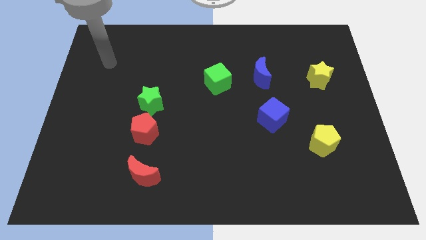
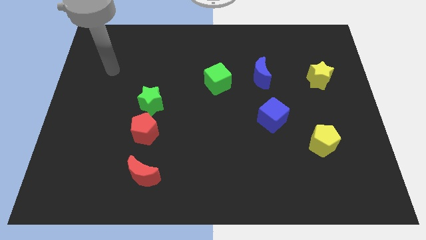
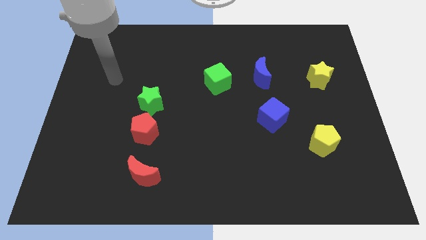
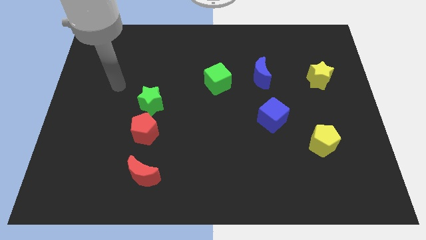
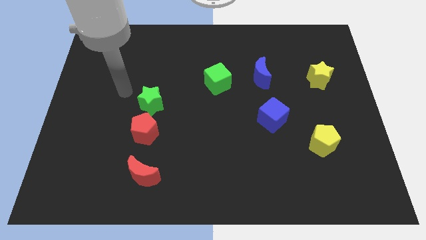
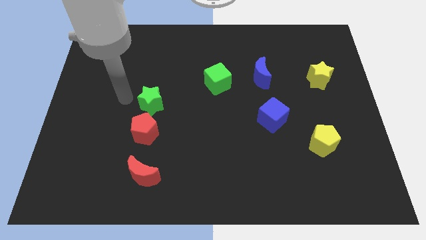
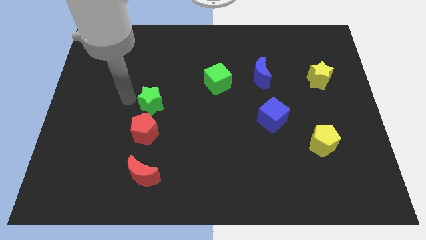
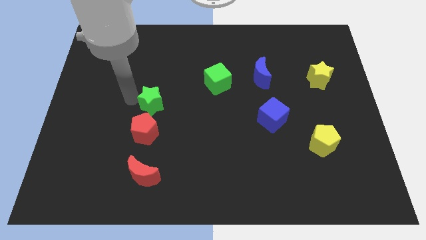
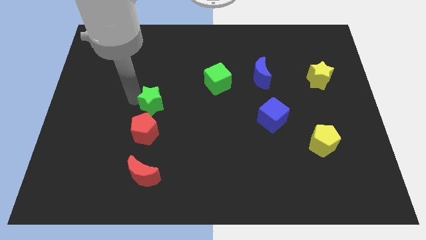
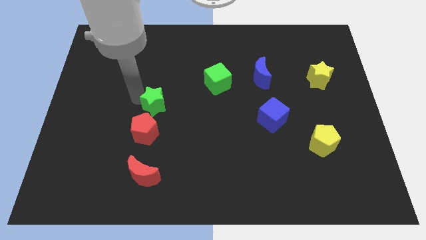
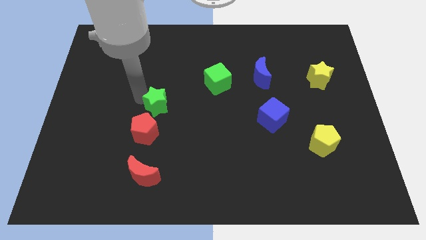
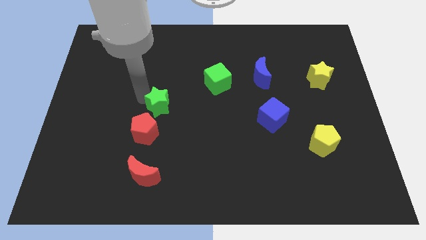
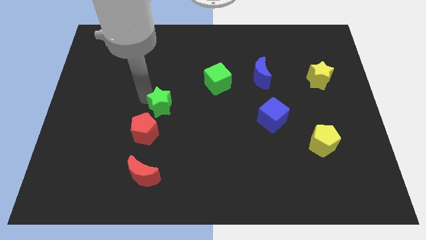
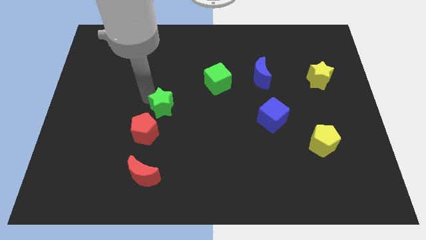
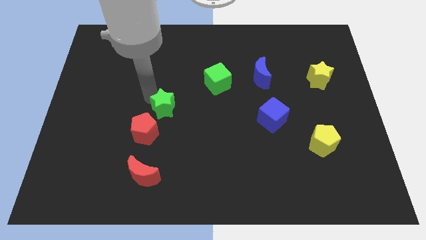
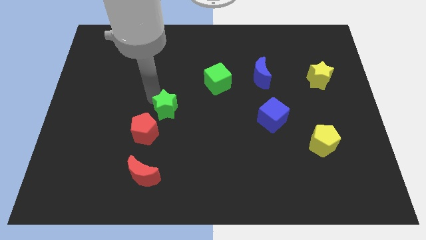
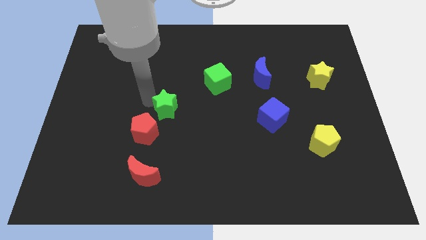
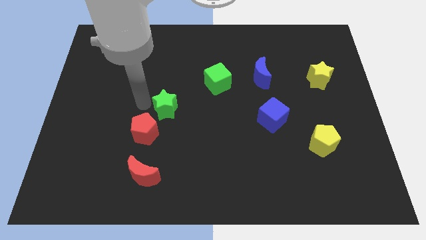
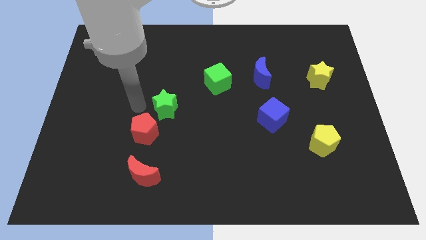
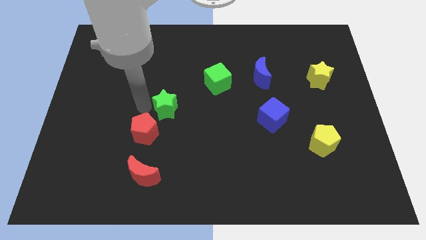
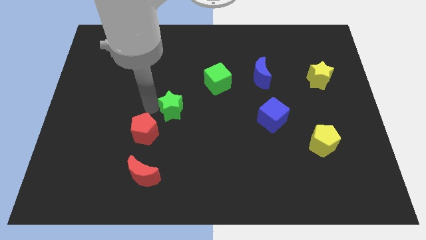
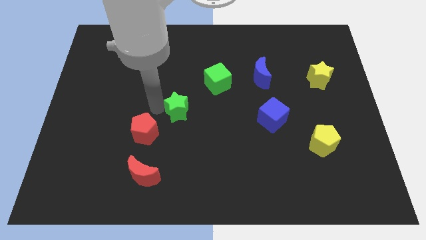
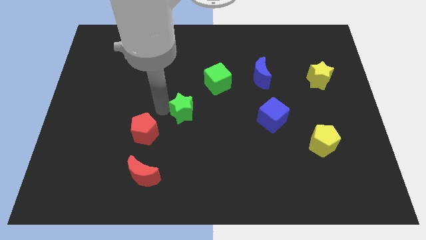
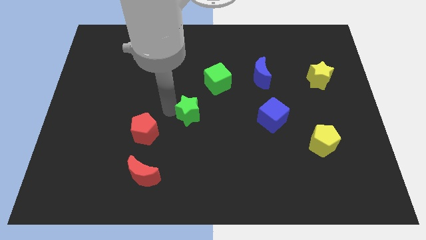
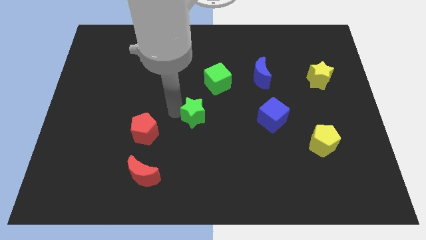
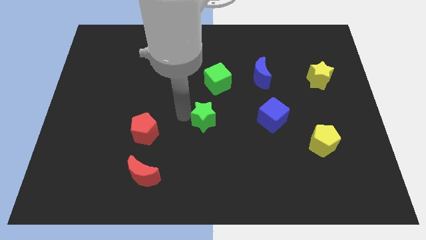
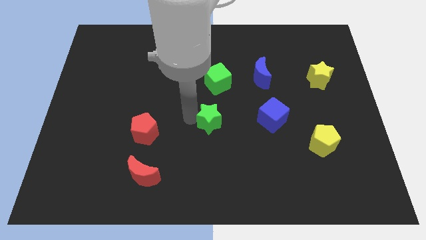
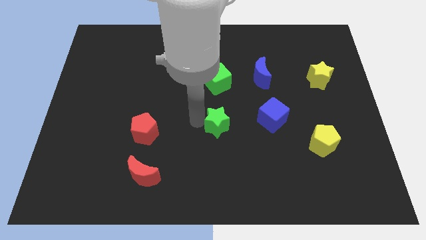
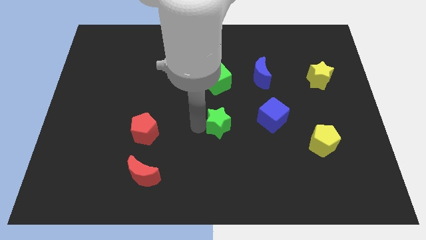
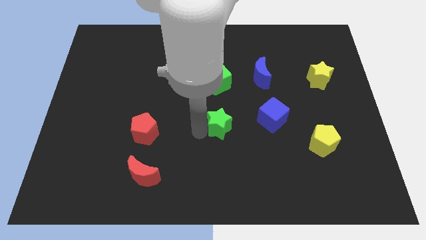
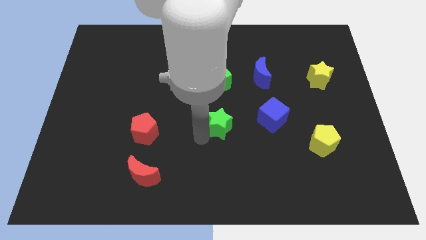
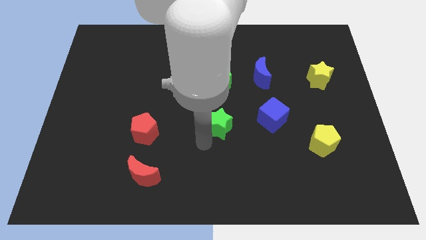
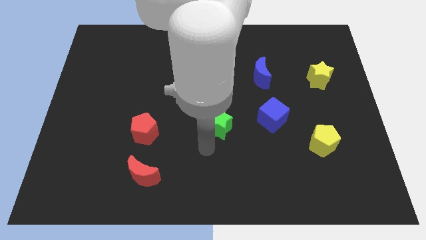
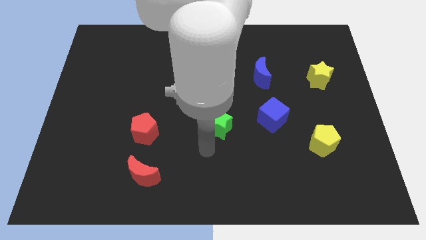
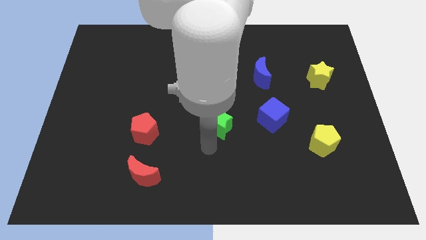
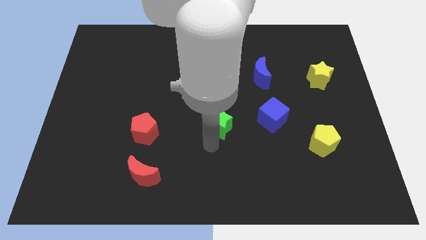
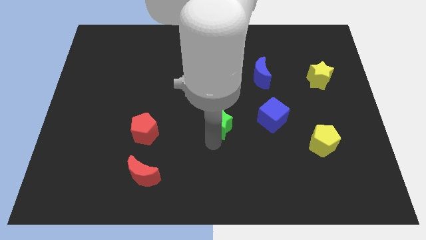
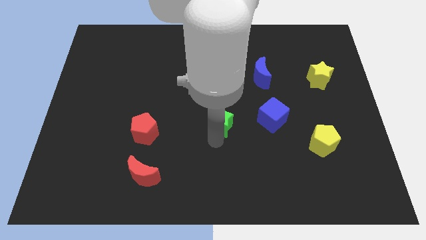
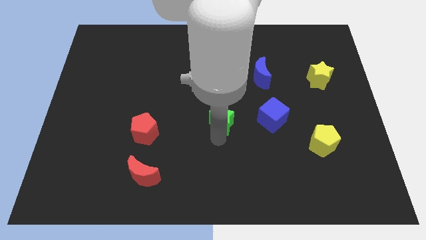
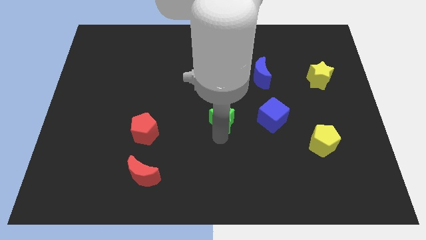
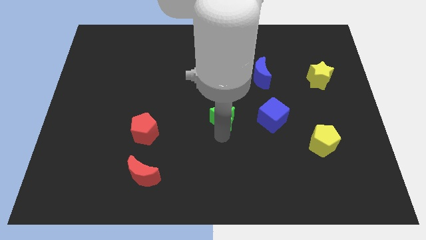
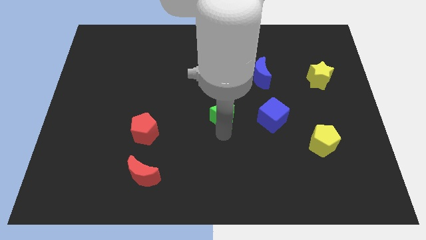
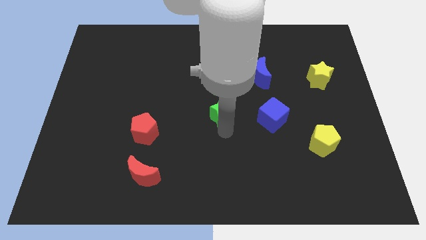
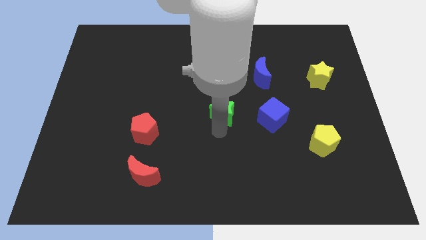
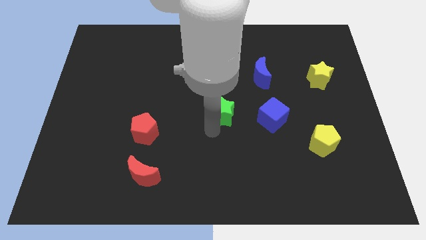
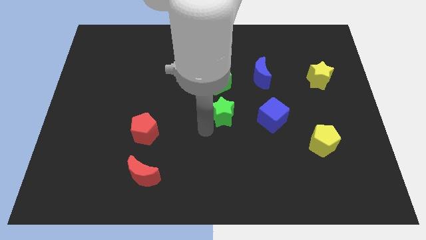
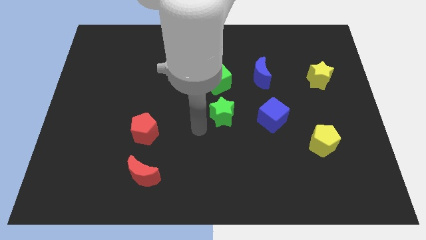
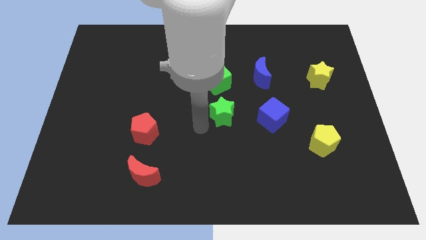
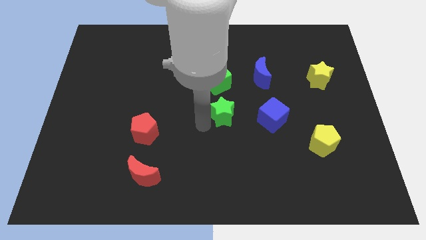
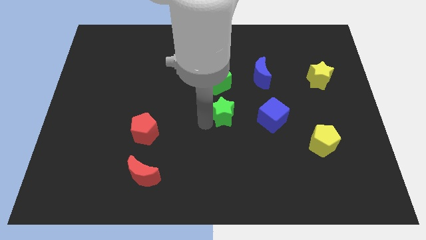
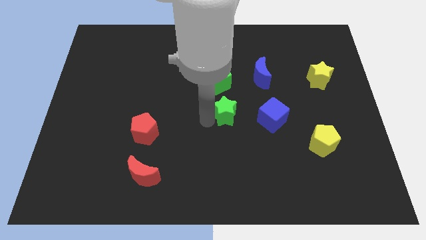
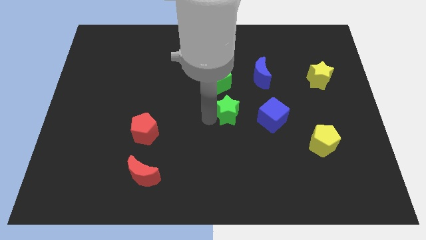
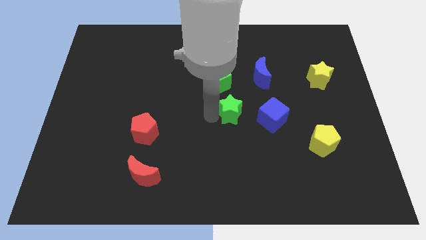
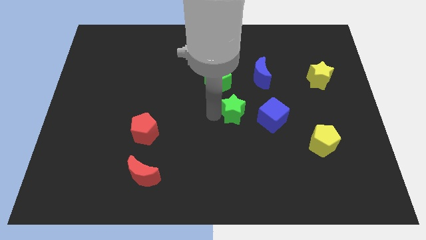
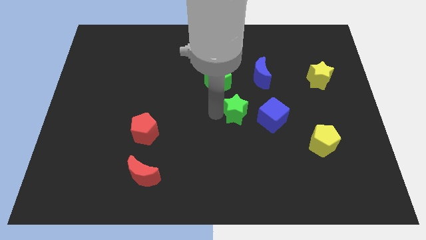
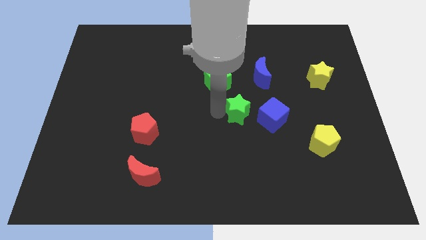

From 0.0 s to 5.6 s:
move the green star right

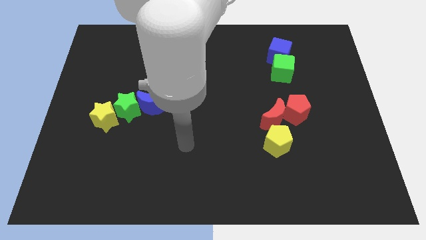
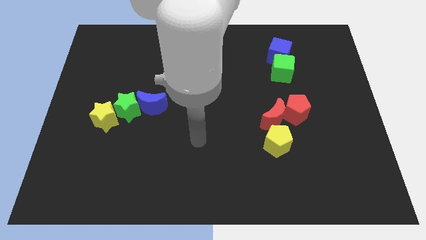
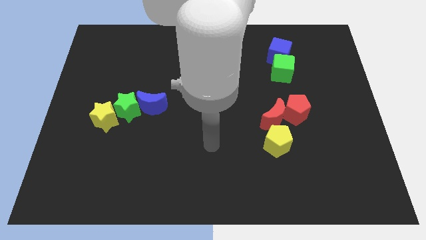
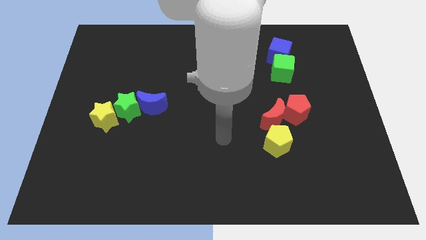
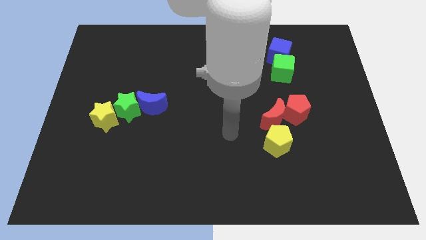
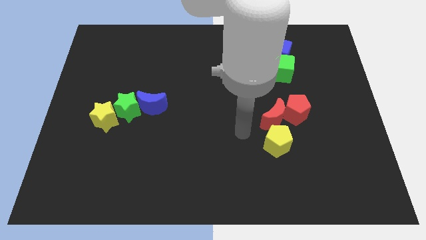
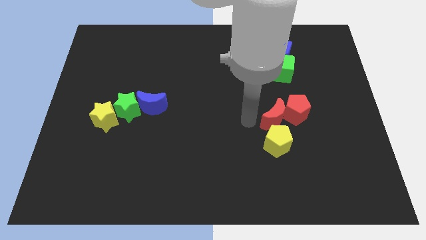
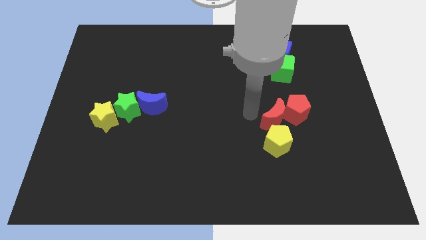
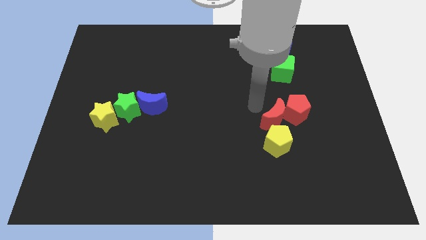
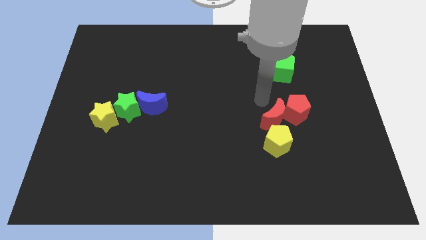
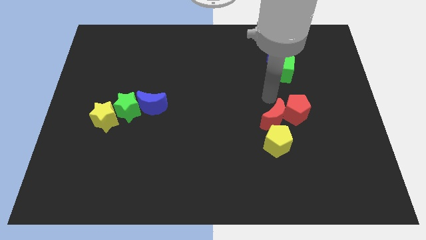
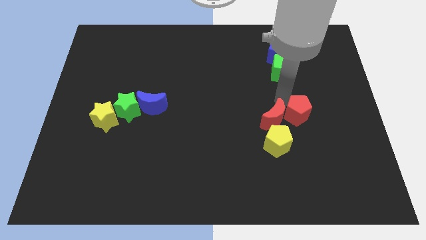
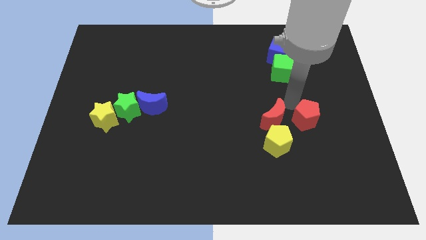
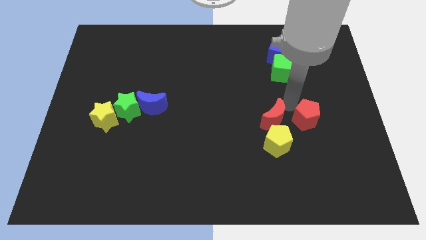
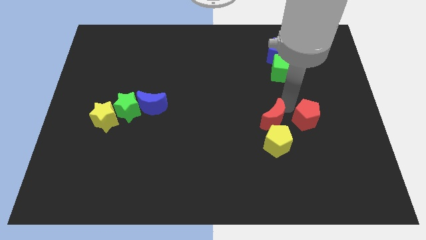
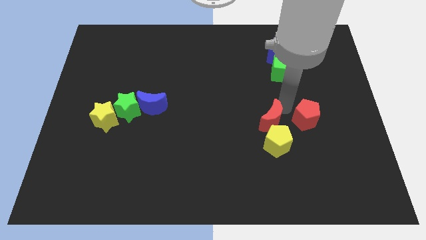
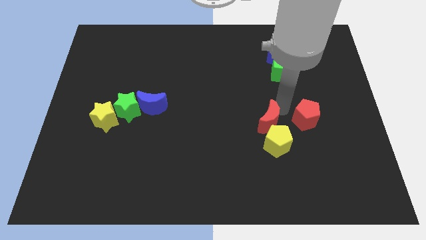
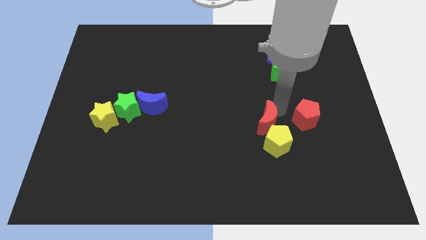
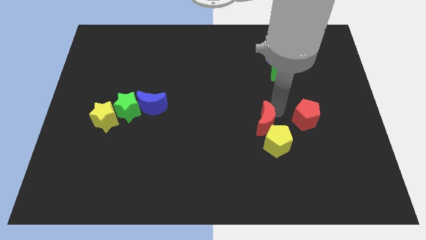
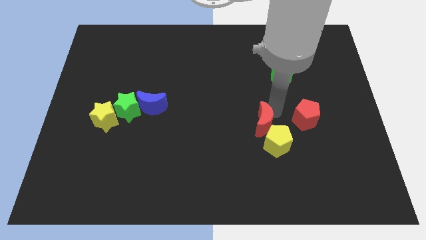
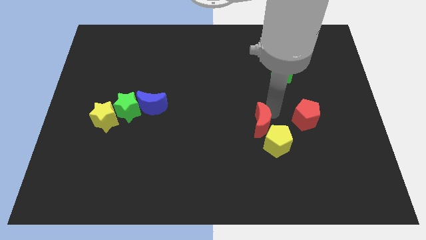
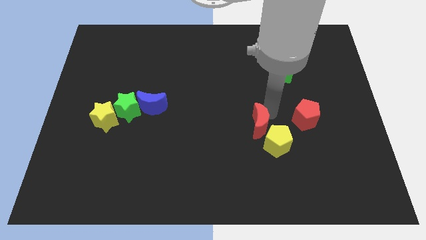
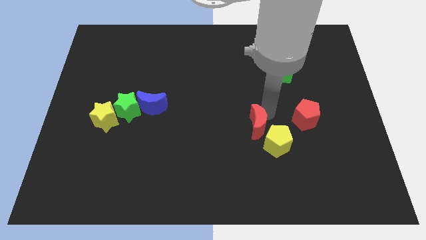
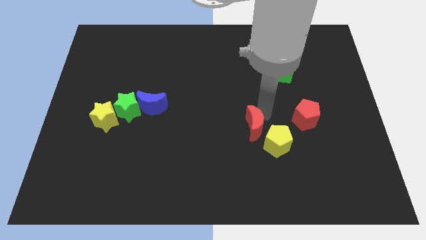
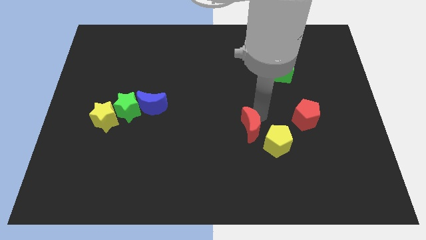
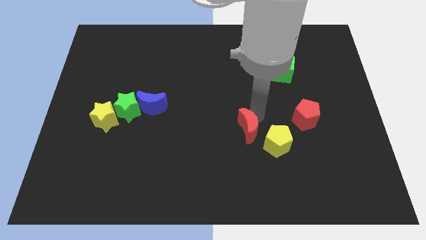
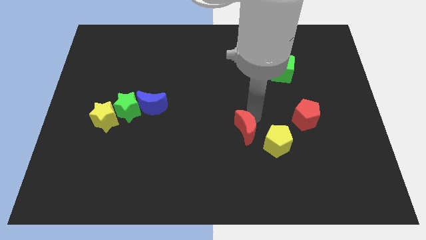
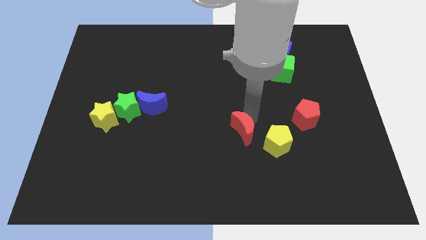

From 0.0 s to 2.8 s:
slide the red moon slightly diagonally down and to the left
